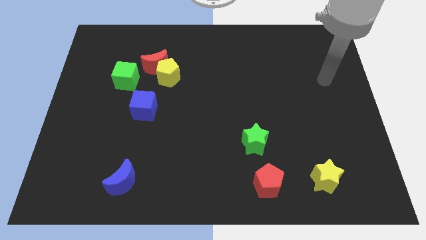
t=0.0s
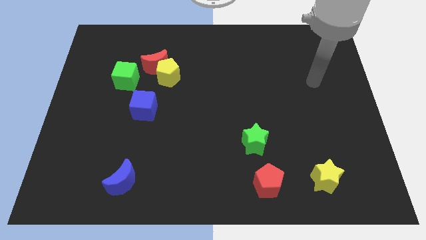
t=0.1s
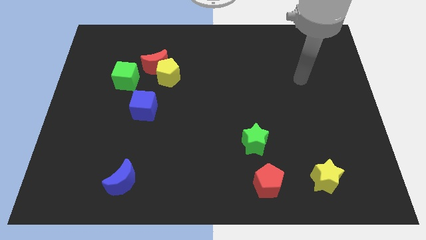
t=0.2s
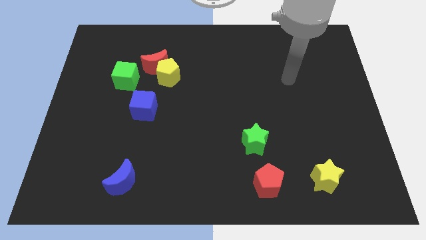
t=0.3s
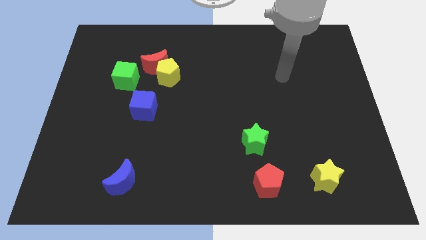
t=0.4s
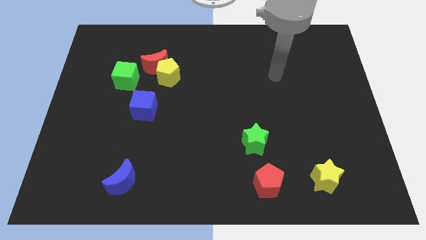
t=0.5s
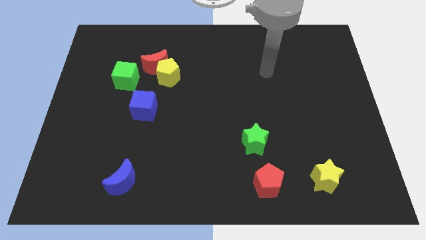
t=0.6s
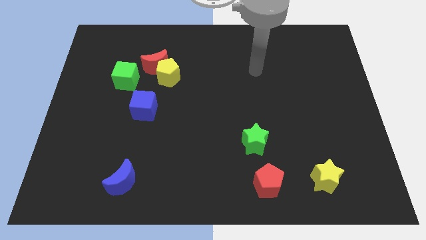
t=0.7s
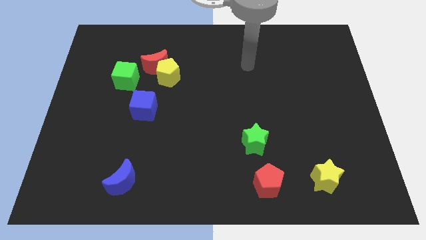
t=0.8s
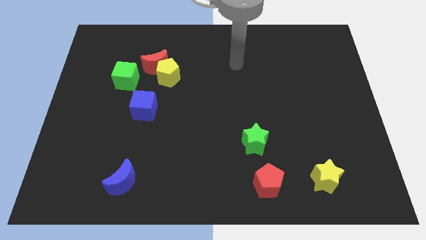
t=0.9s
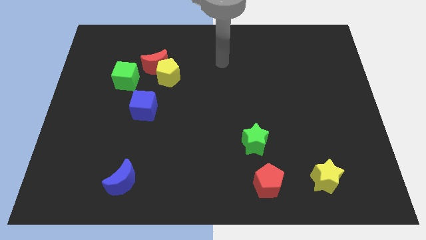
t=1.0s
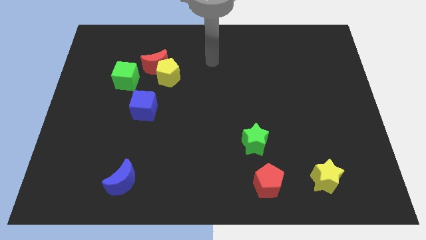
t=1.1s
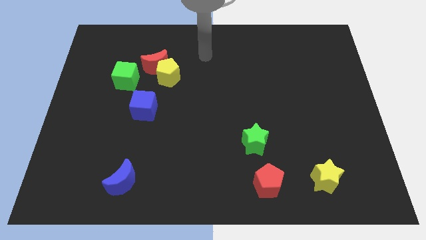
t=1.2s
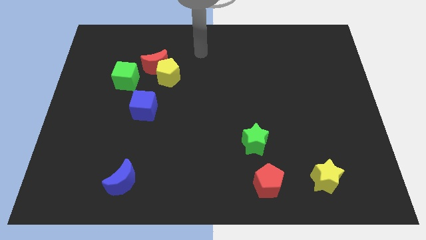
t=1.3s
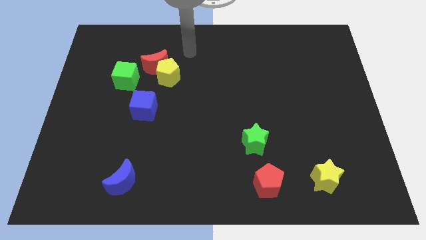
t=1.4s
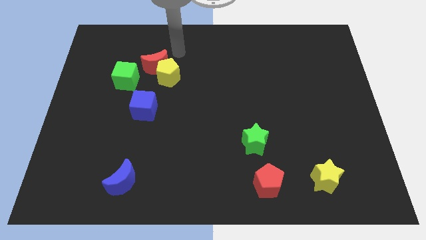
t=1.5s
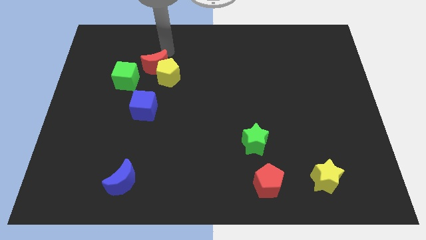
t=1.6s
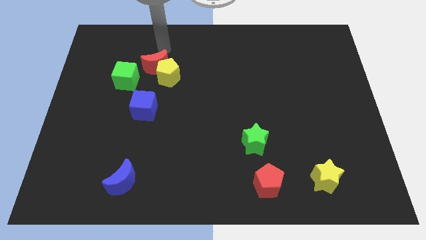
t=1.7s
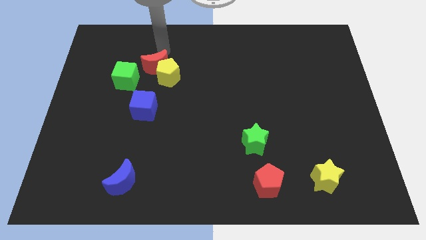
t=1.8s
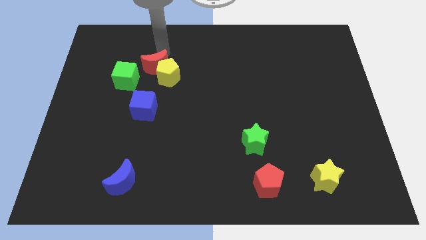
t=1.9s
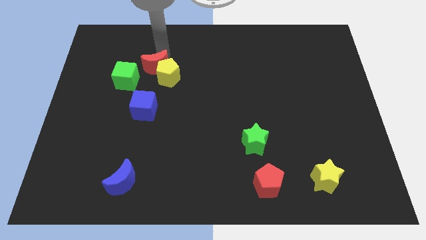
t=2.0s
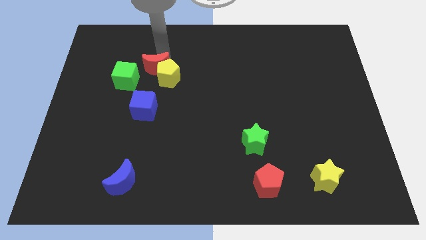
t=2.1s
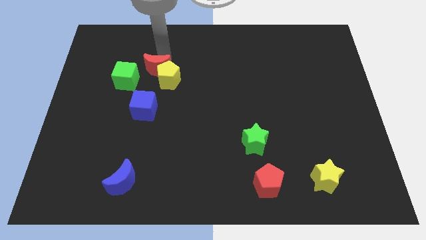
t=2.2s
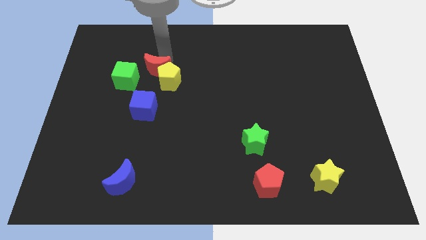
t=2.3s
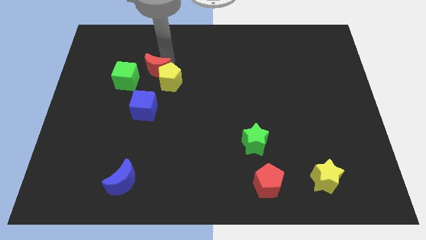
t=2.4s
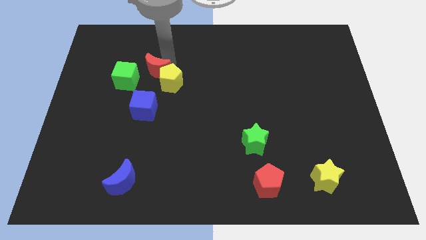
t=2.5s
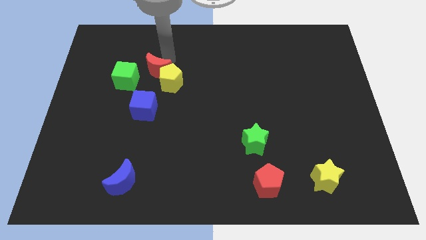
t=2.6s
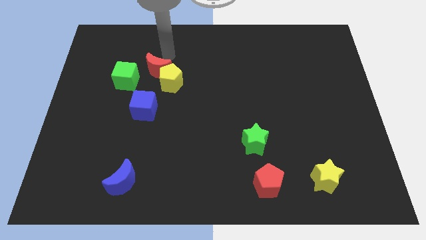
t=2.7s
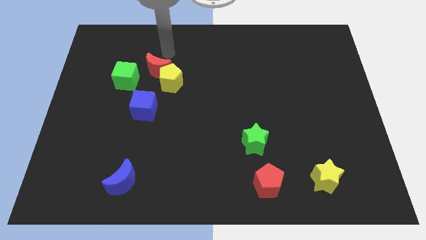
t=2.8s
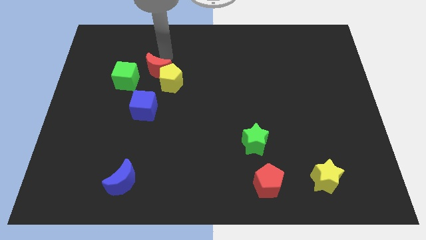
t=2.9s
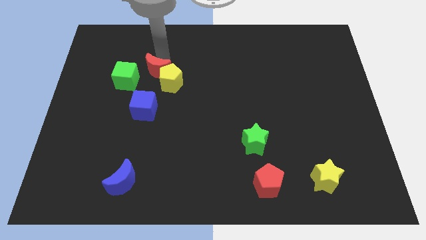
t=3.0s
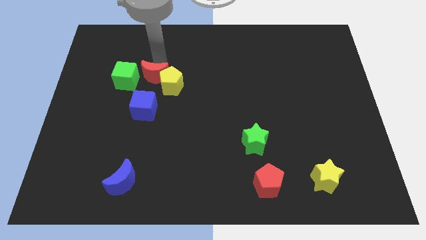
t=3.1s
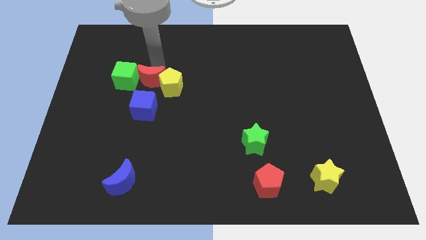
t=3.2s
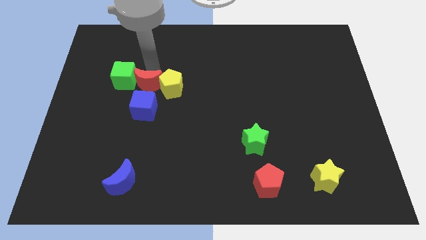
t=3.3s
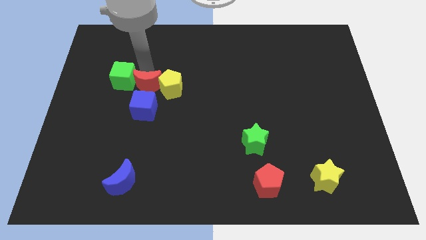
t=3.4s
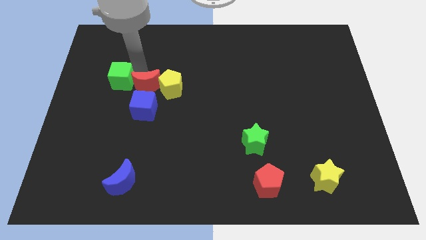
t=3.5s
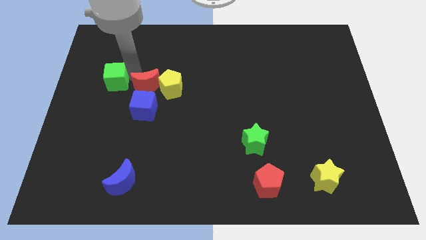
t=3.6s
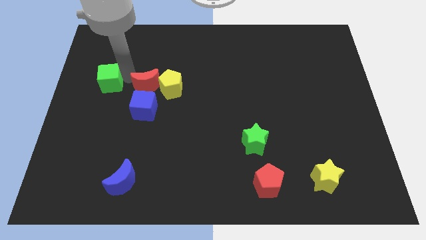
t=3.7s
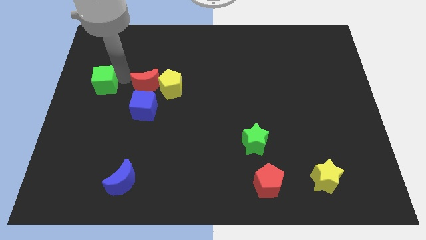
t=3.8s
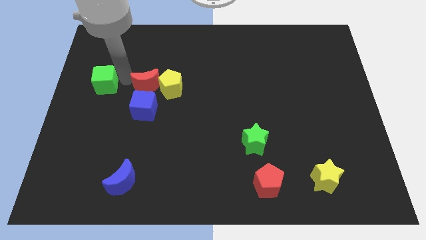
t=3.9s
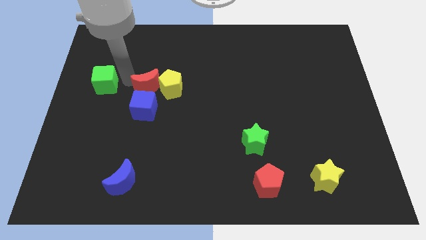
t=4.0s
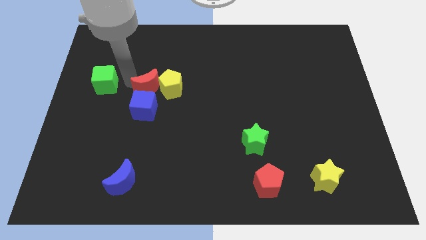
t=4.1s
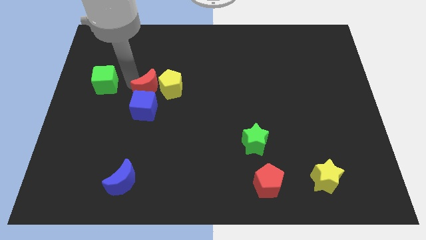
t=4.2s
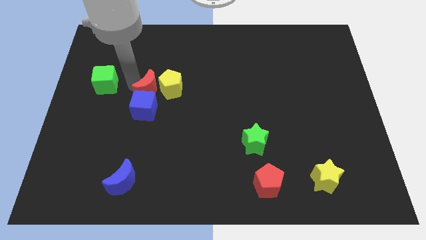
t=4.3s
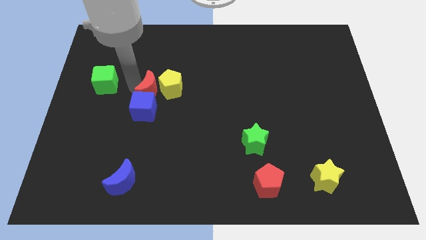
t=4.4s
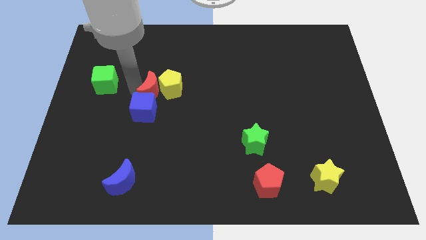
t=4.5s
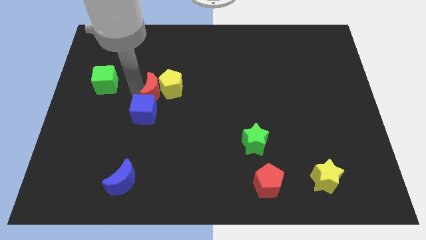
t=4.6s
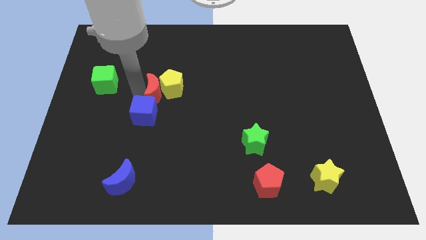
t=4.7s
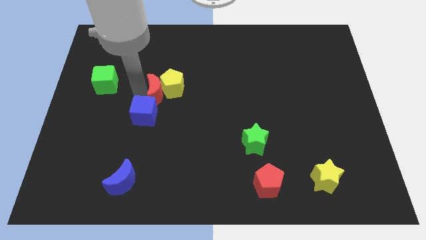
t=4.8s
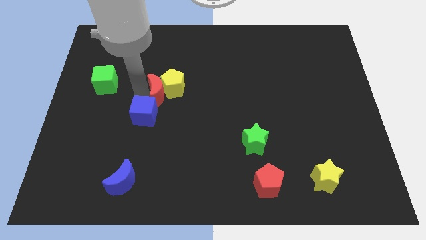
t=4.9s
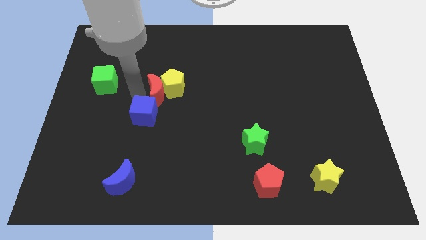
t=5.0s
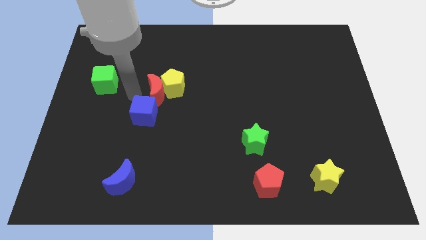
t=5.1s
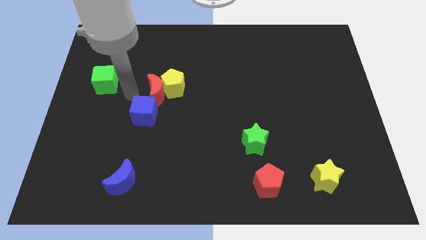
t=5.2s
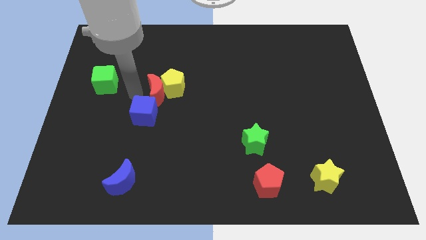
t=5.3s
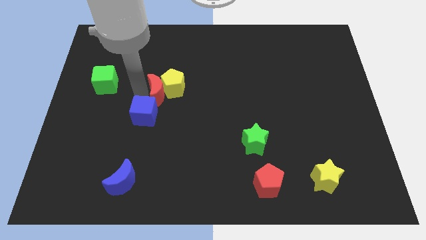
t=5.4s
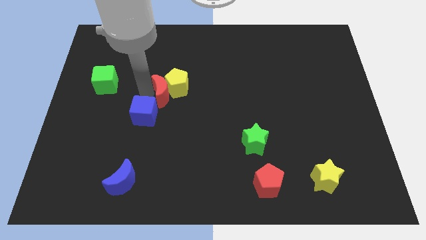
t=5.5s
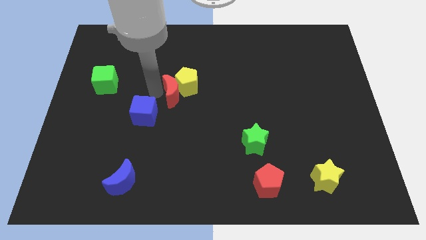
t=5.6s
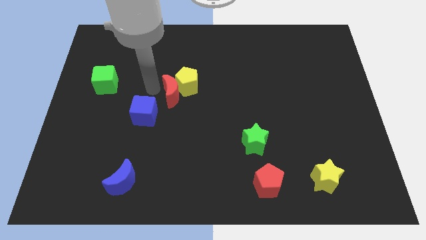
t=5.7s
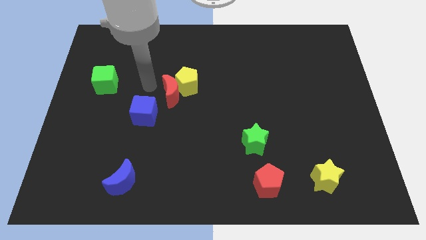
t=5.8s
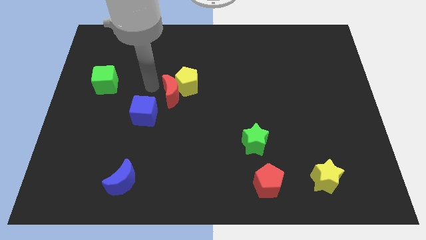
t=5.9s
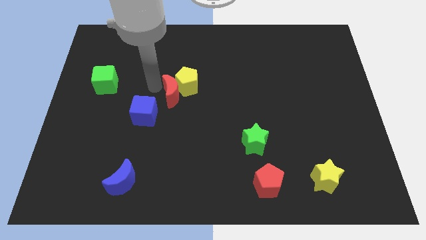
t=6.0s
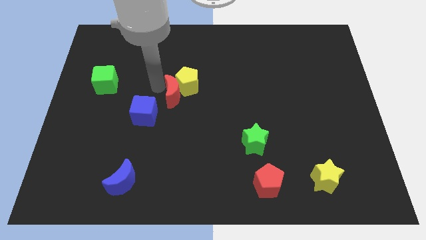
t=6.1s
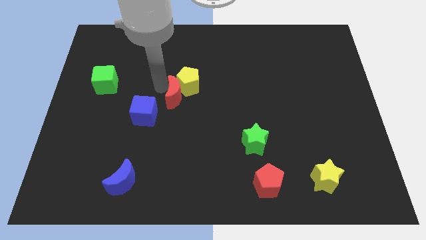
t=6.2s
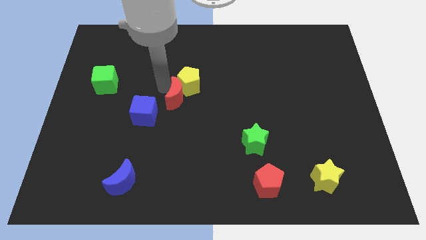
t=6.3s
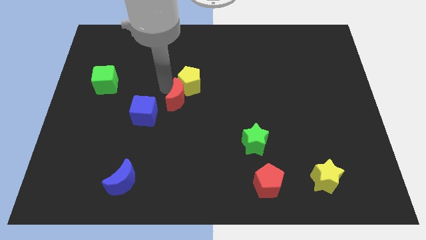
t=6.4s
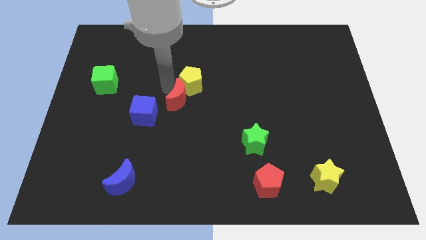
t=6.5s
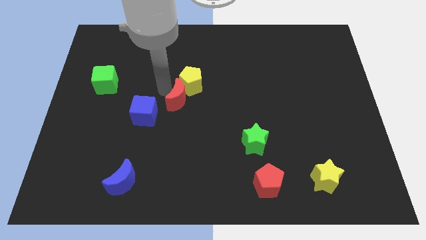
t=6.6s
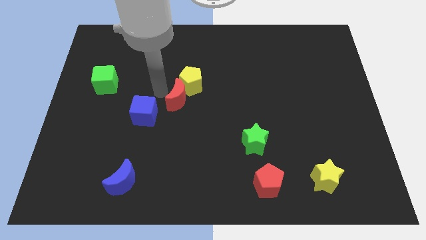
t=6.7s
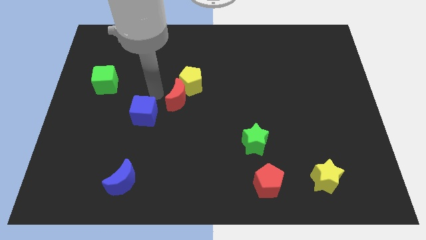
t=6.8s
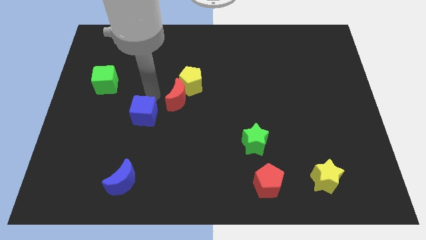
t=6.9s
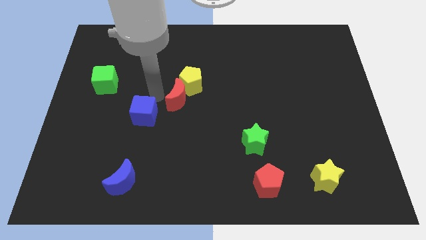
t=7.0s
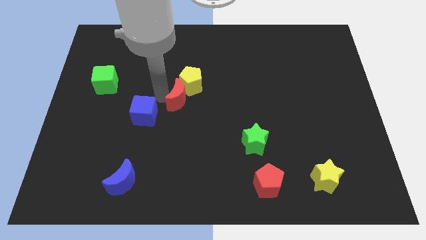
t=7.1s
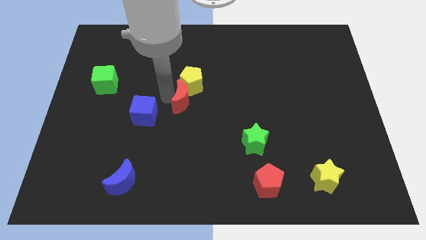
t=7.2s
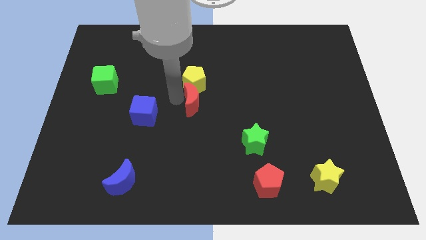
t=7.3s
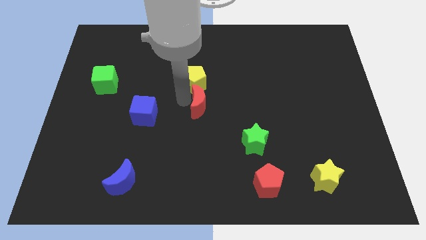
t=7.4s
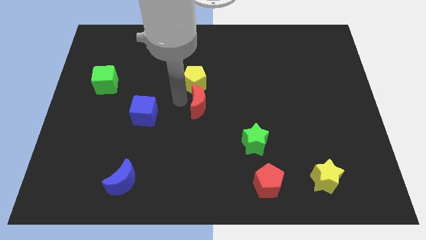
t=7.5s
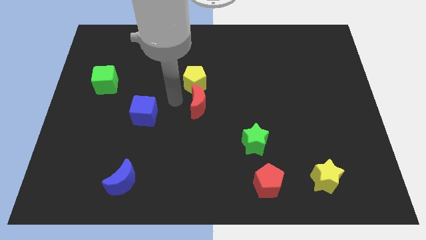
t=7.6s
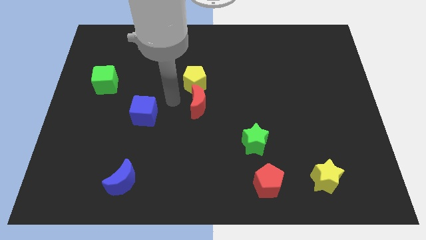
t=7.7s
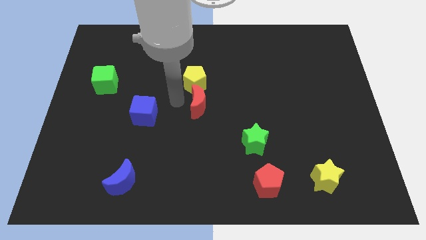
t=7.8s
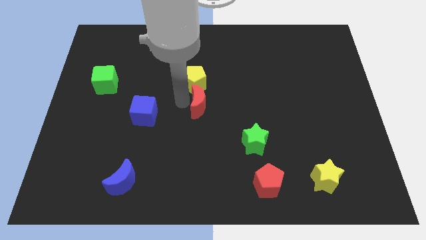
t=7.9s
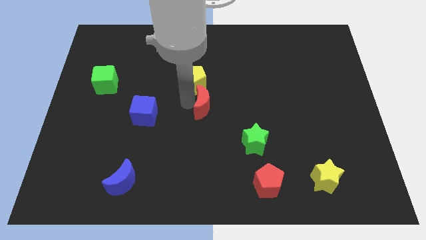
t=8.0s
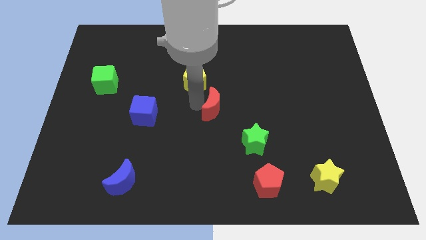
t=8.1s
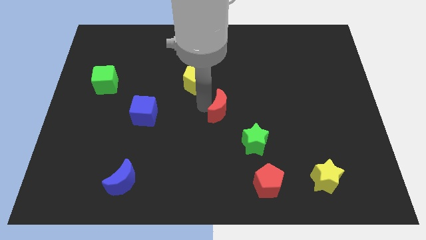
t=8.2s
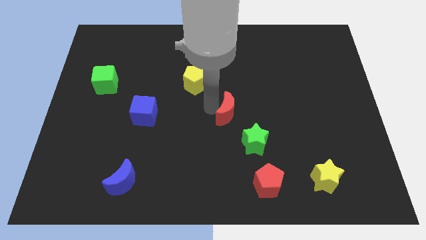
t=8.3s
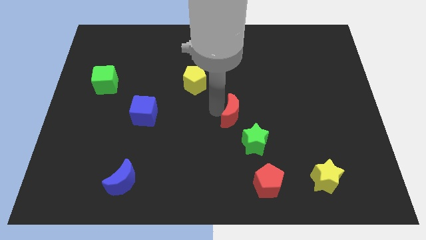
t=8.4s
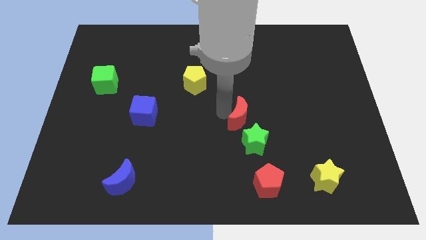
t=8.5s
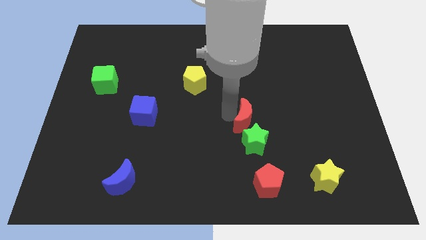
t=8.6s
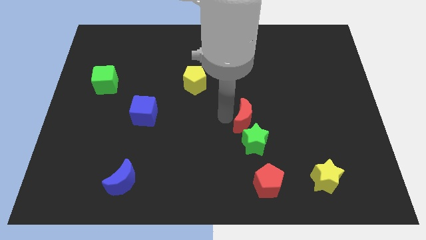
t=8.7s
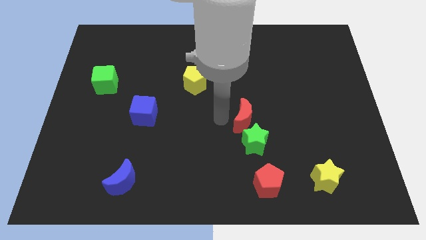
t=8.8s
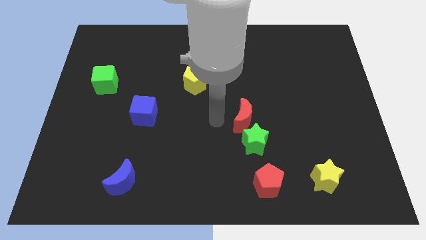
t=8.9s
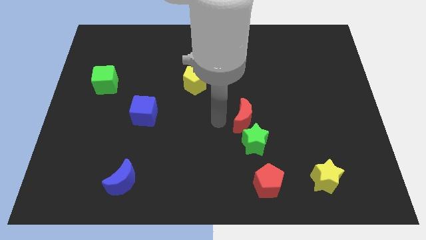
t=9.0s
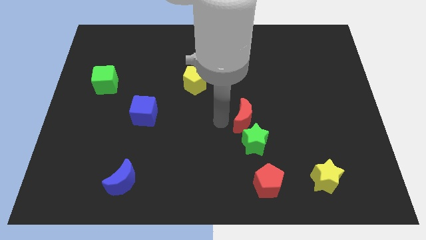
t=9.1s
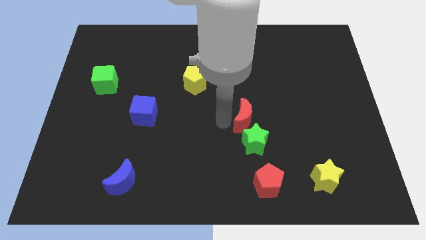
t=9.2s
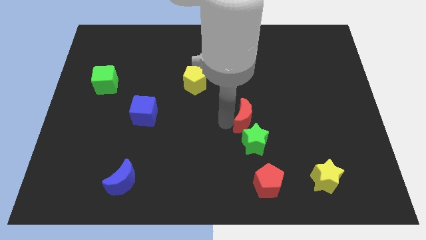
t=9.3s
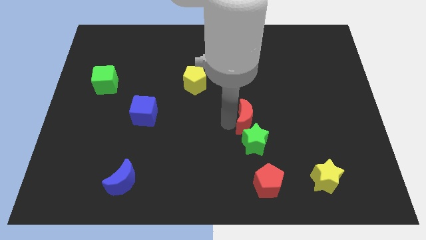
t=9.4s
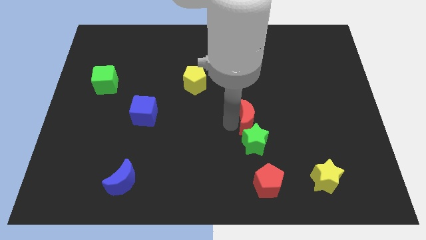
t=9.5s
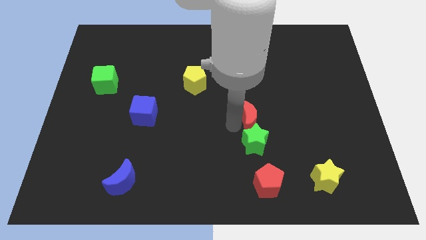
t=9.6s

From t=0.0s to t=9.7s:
slide the red moon diagonally up and to the right of the green star
